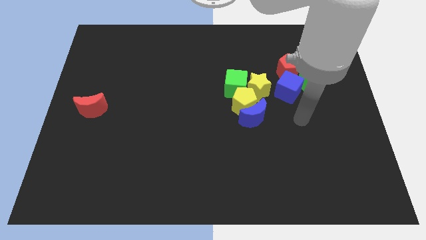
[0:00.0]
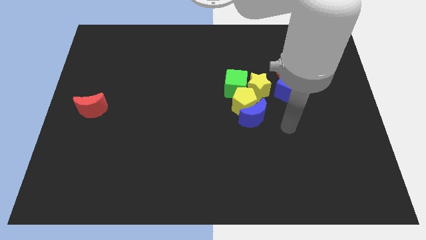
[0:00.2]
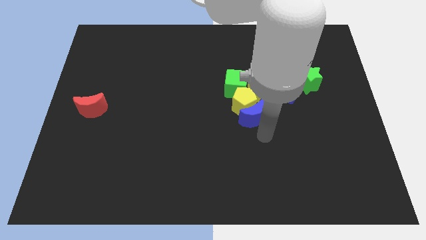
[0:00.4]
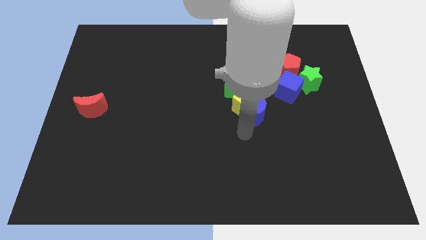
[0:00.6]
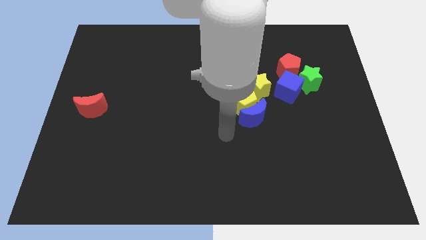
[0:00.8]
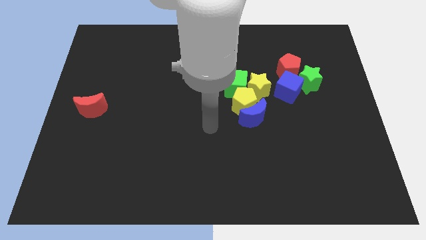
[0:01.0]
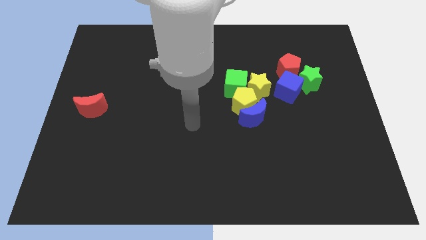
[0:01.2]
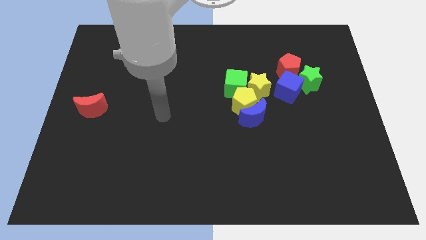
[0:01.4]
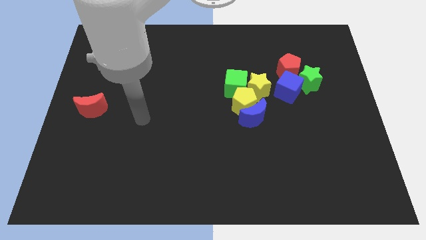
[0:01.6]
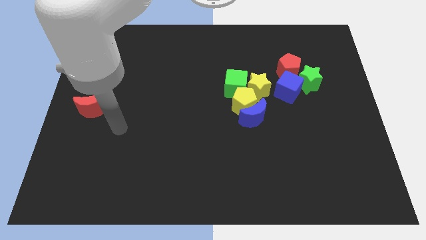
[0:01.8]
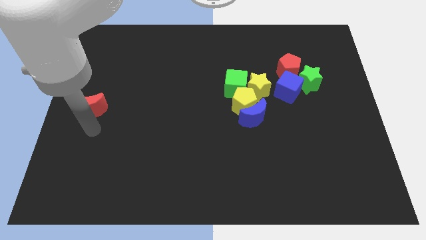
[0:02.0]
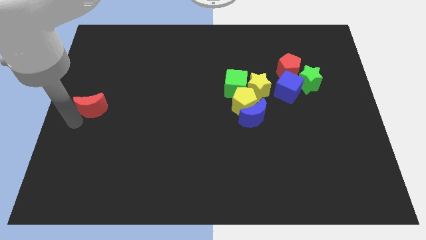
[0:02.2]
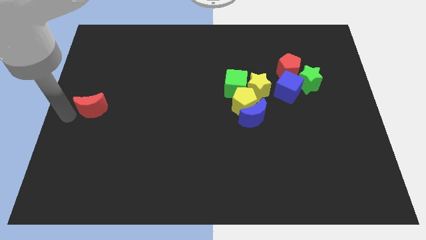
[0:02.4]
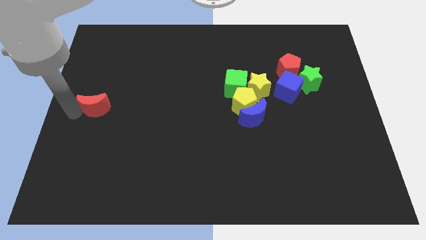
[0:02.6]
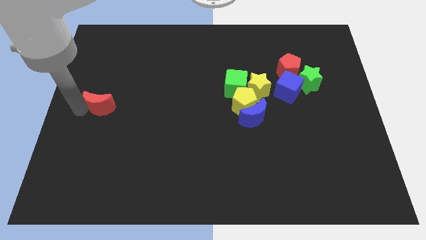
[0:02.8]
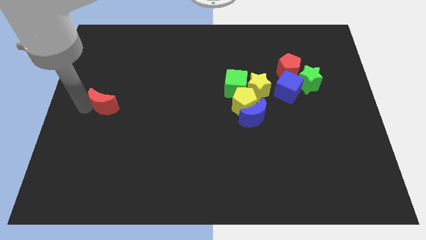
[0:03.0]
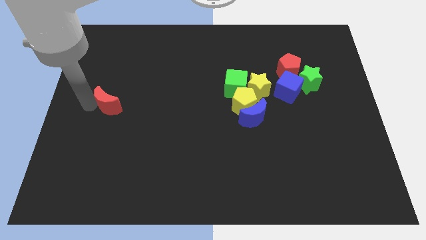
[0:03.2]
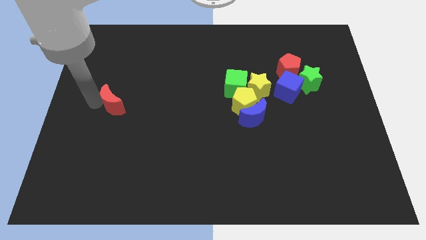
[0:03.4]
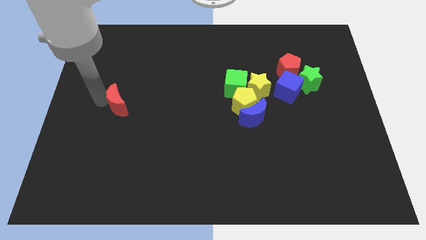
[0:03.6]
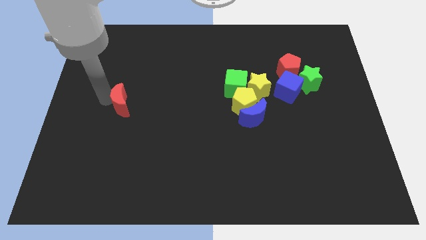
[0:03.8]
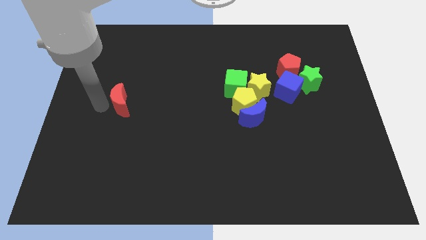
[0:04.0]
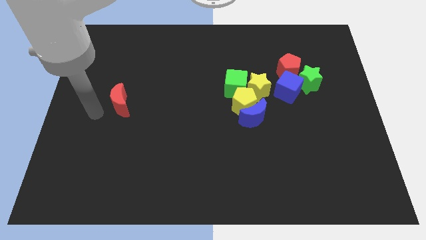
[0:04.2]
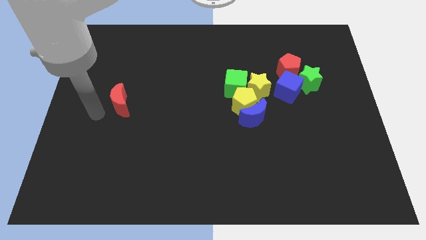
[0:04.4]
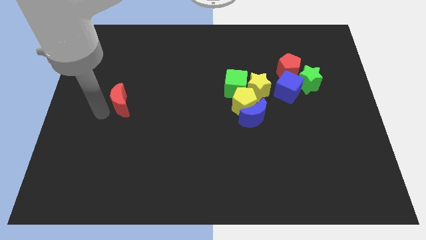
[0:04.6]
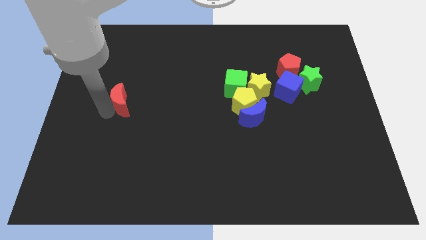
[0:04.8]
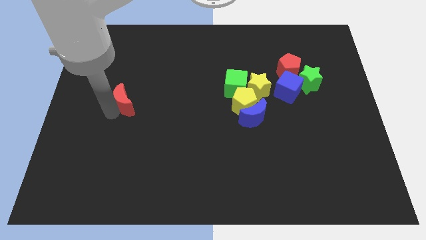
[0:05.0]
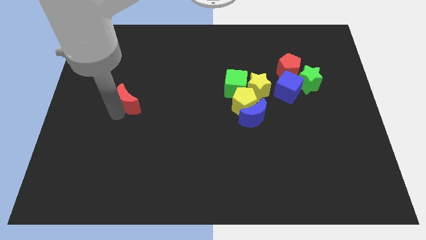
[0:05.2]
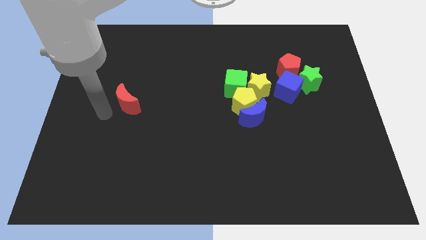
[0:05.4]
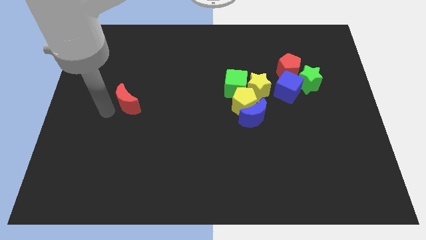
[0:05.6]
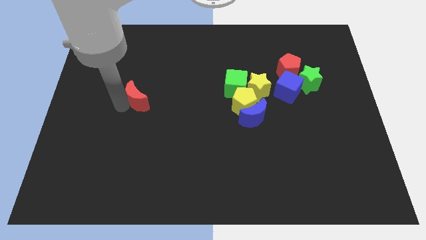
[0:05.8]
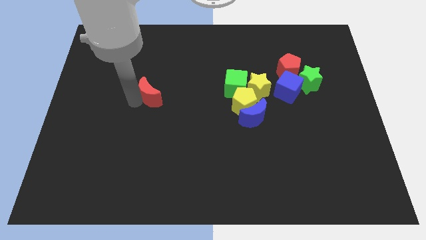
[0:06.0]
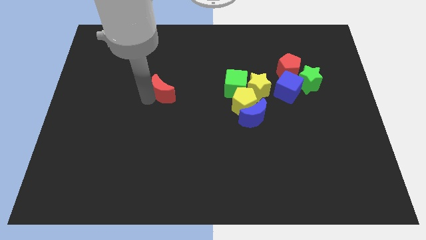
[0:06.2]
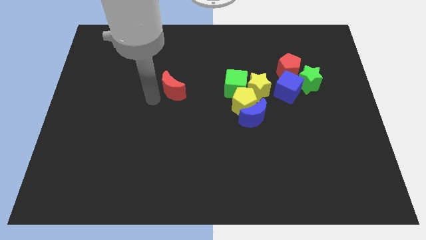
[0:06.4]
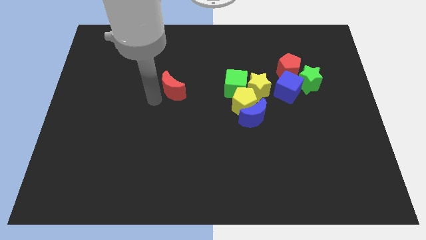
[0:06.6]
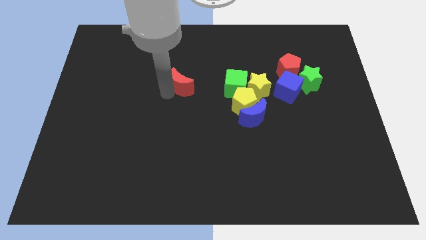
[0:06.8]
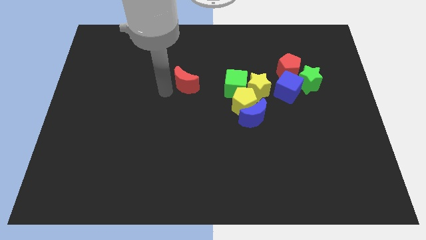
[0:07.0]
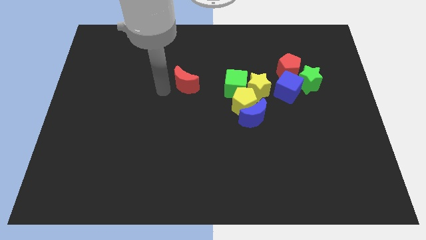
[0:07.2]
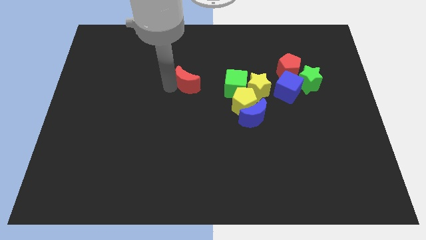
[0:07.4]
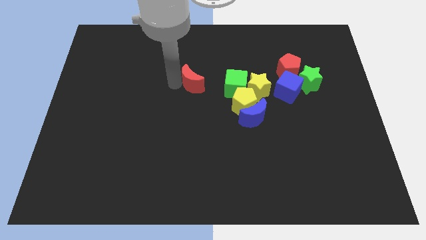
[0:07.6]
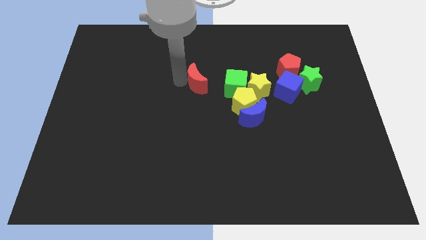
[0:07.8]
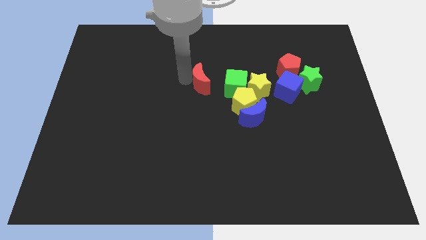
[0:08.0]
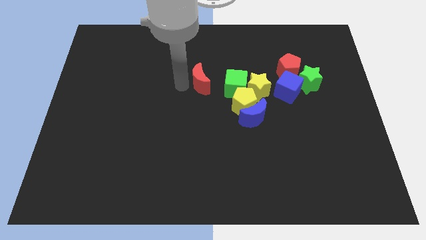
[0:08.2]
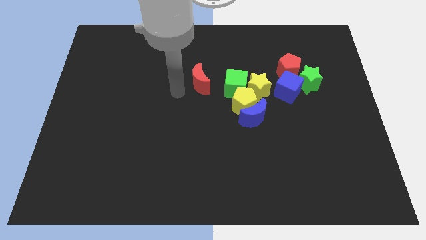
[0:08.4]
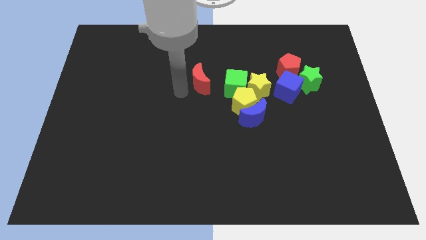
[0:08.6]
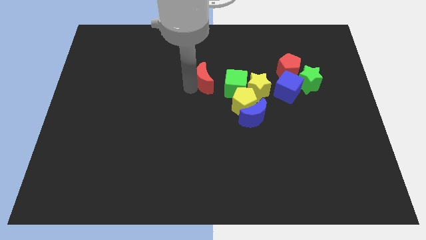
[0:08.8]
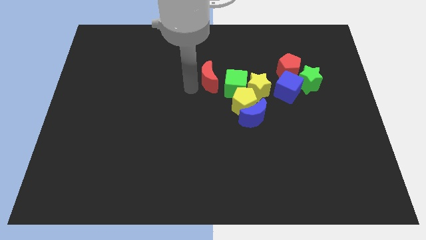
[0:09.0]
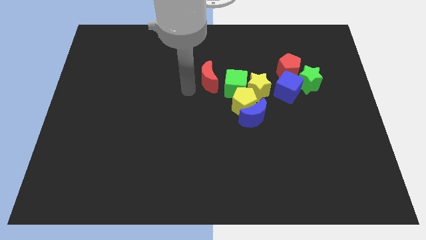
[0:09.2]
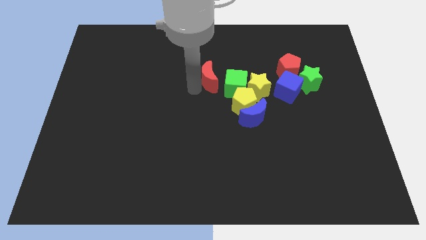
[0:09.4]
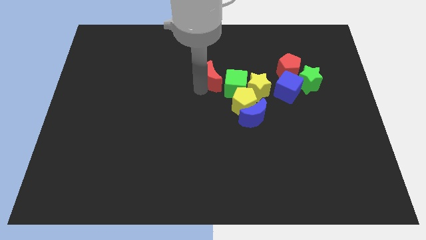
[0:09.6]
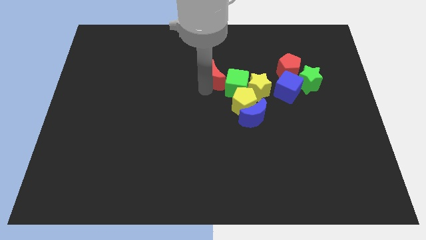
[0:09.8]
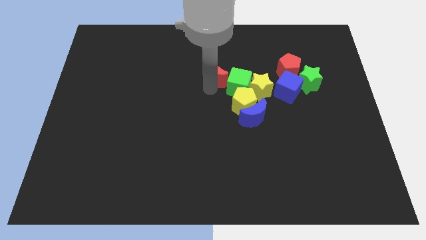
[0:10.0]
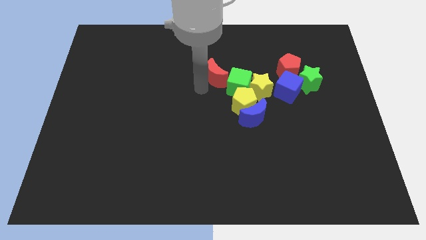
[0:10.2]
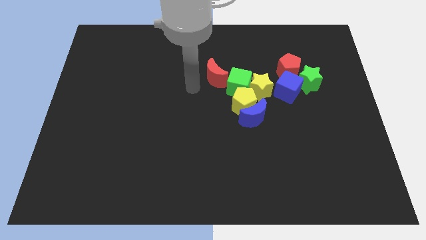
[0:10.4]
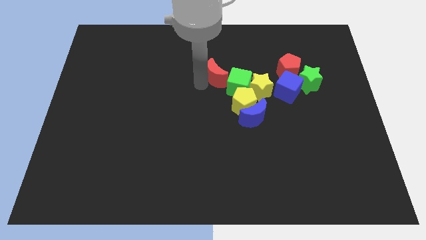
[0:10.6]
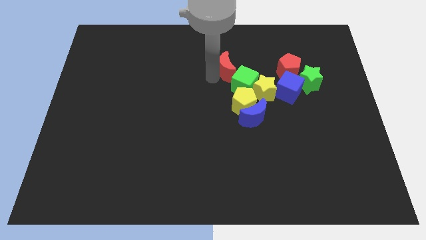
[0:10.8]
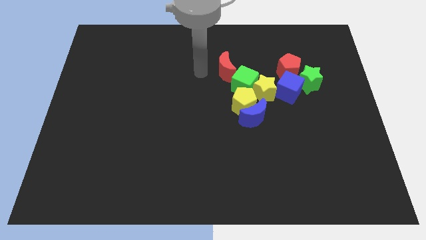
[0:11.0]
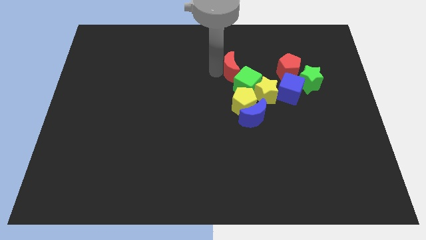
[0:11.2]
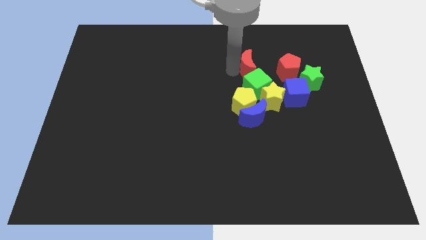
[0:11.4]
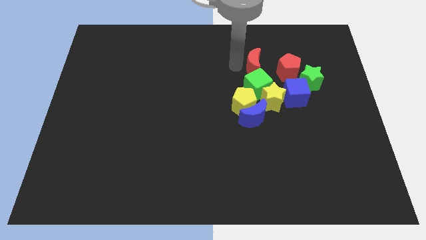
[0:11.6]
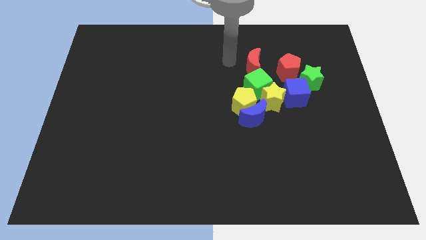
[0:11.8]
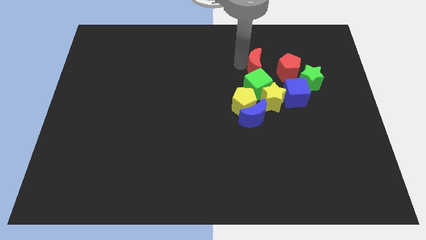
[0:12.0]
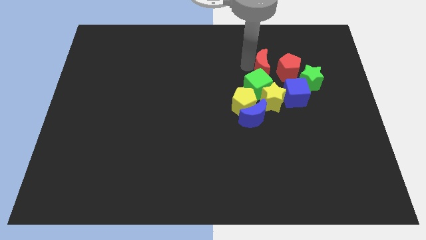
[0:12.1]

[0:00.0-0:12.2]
put the red moon diagonally up and to the right of the green cube

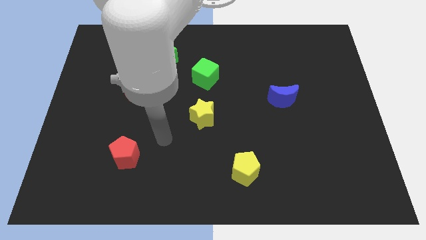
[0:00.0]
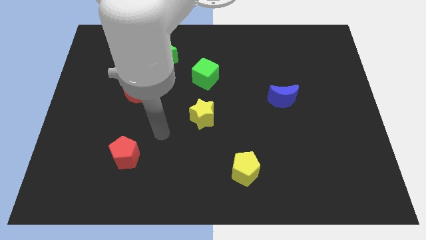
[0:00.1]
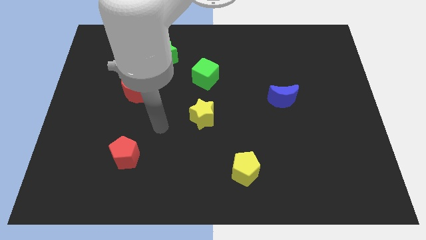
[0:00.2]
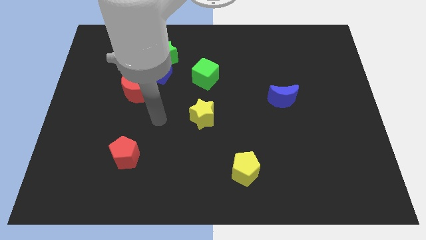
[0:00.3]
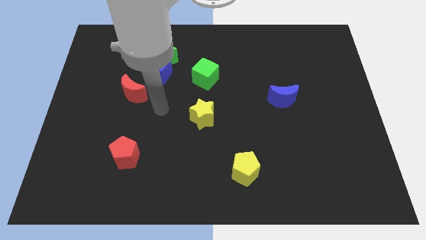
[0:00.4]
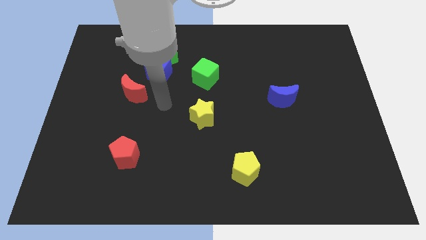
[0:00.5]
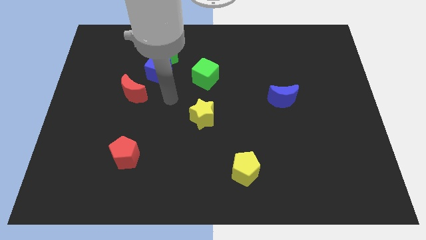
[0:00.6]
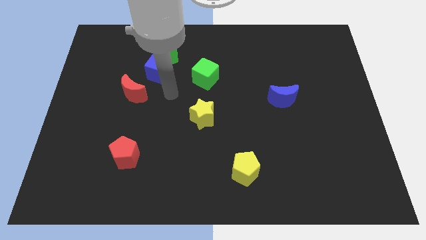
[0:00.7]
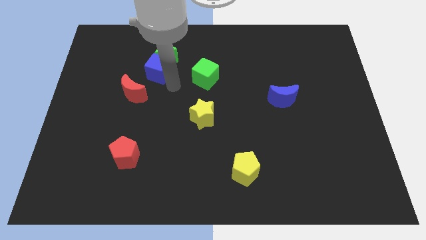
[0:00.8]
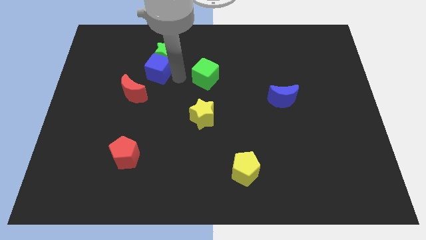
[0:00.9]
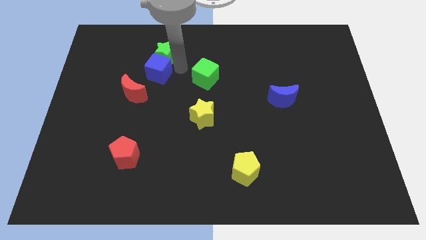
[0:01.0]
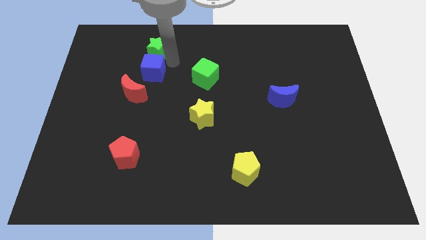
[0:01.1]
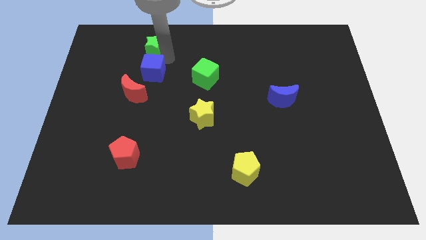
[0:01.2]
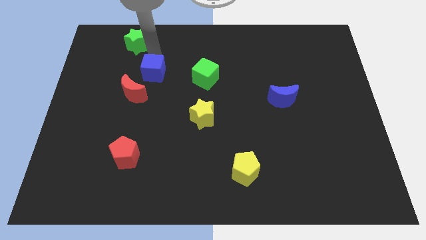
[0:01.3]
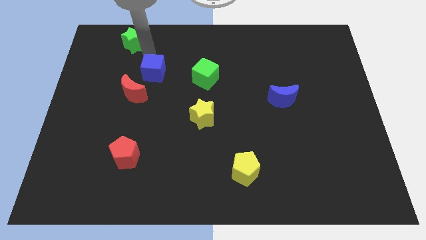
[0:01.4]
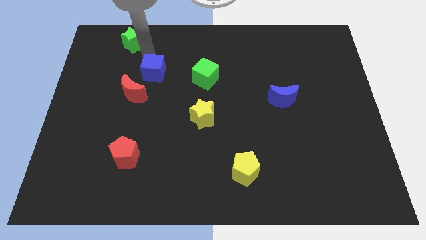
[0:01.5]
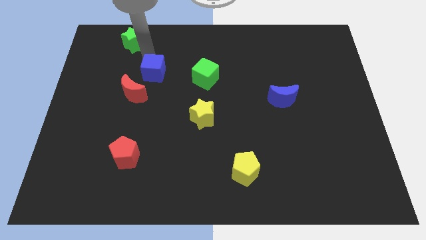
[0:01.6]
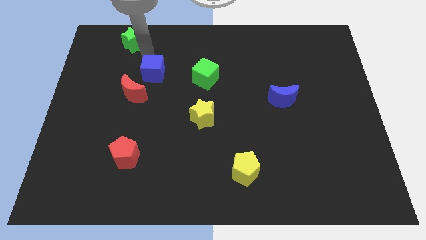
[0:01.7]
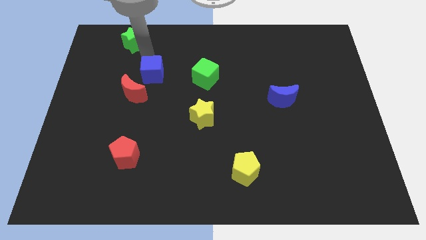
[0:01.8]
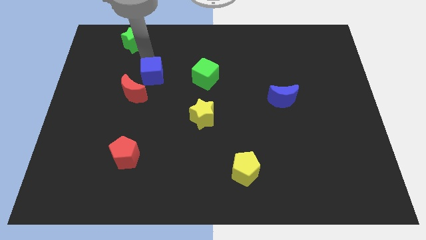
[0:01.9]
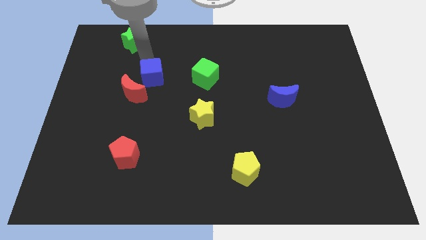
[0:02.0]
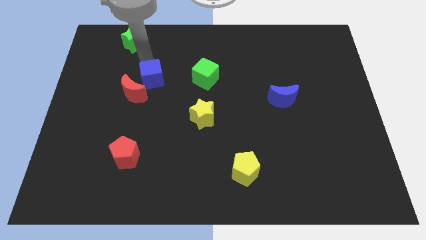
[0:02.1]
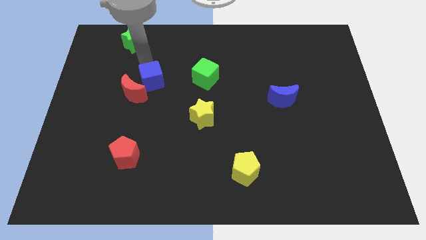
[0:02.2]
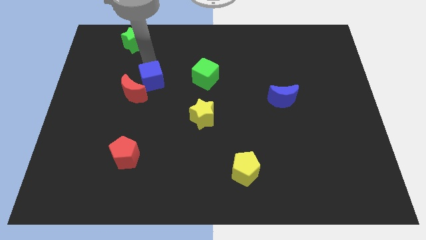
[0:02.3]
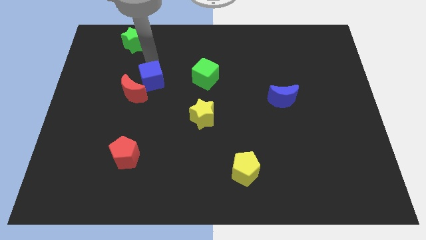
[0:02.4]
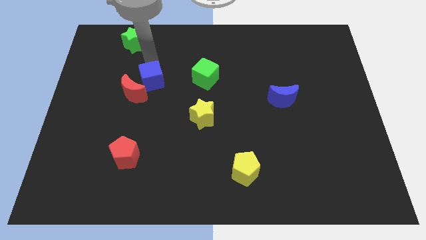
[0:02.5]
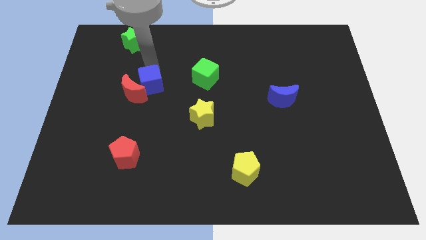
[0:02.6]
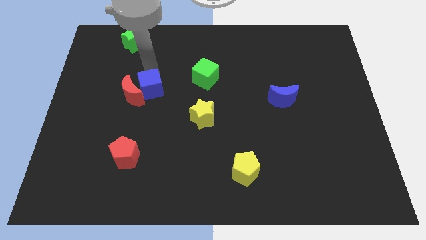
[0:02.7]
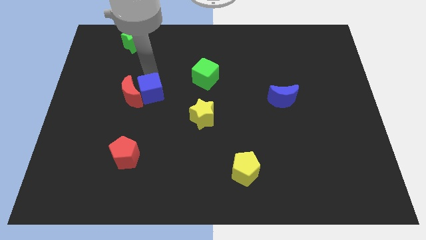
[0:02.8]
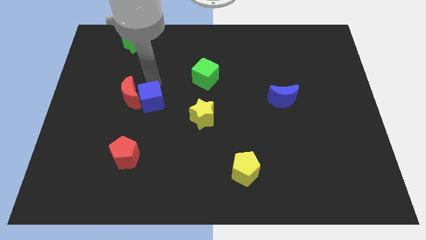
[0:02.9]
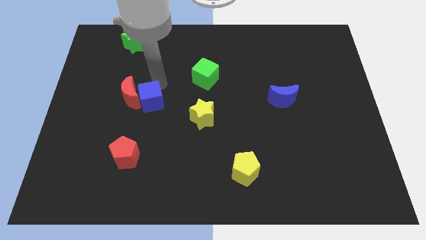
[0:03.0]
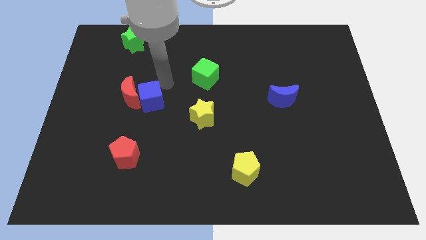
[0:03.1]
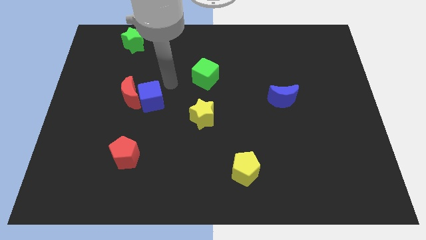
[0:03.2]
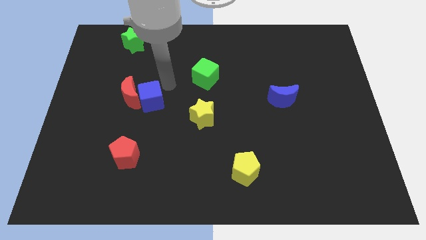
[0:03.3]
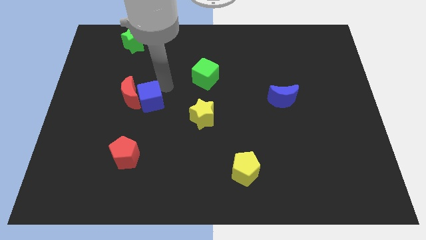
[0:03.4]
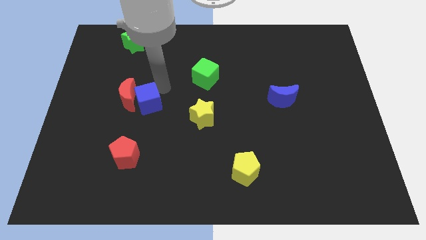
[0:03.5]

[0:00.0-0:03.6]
slide the blue cube above the red pentagon
